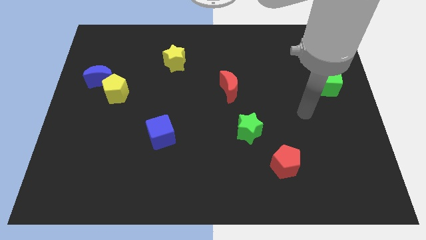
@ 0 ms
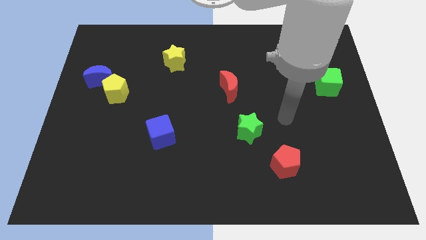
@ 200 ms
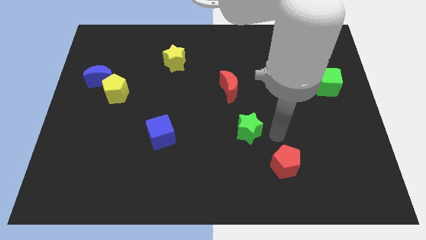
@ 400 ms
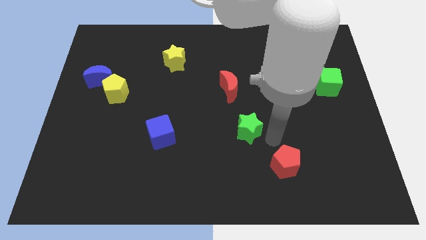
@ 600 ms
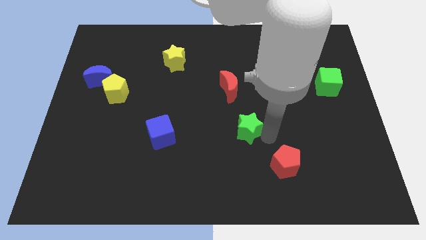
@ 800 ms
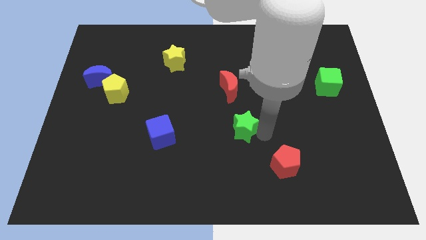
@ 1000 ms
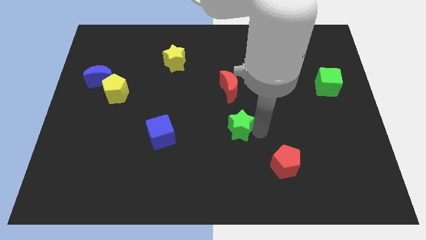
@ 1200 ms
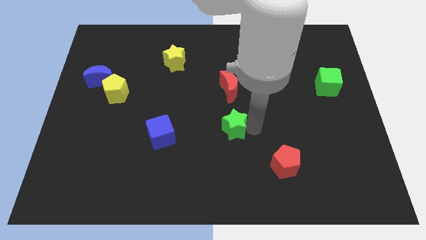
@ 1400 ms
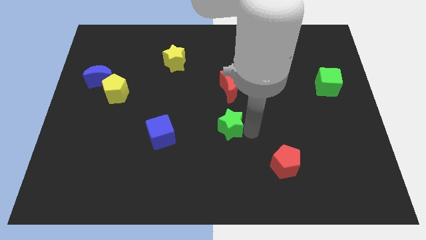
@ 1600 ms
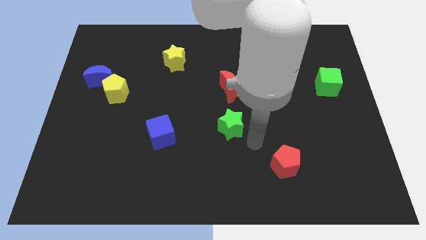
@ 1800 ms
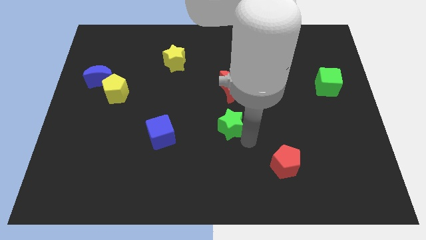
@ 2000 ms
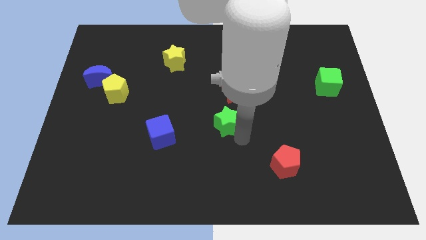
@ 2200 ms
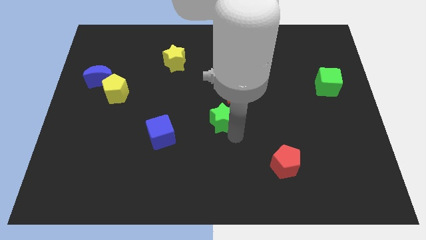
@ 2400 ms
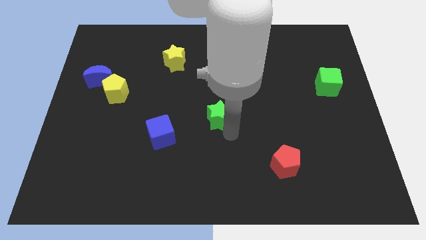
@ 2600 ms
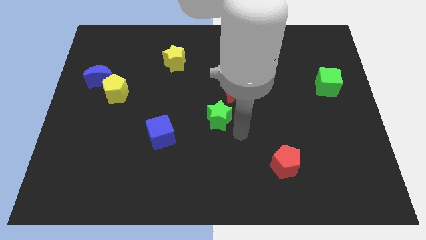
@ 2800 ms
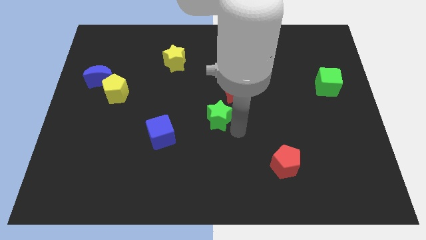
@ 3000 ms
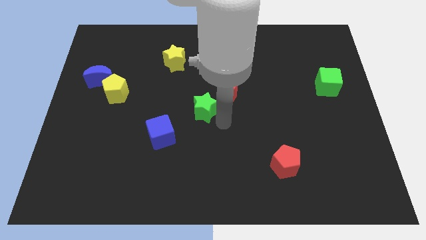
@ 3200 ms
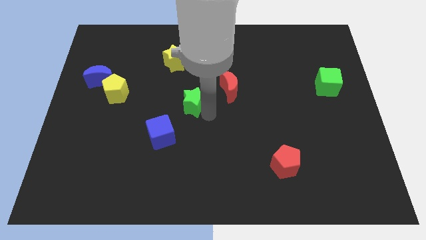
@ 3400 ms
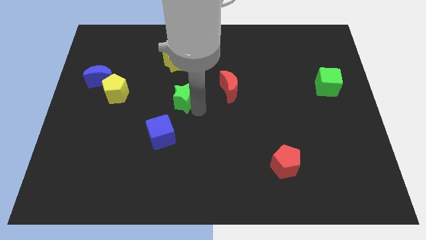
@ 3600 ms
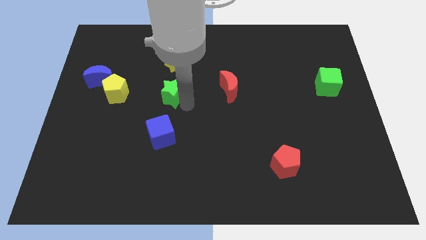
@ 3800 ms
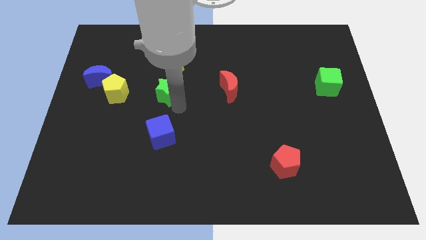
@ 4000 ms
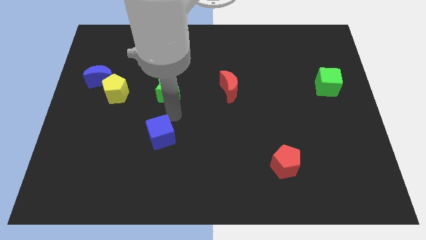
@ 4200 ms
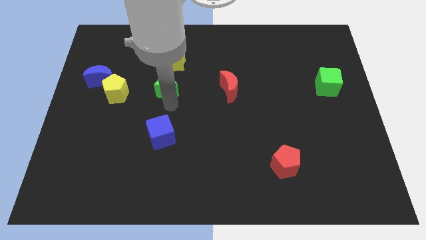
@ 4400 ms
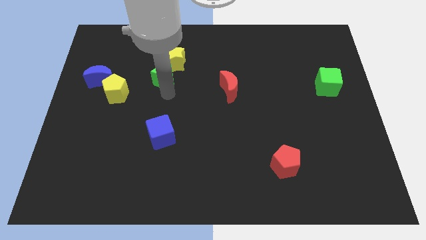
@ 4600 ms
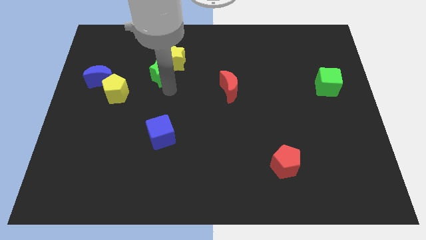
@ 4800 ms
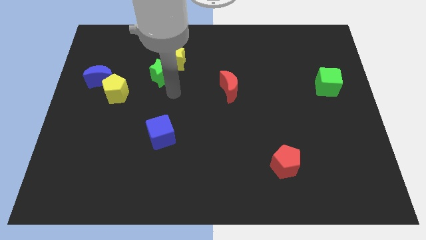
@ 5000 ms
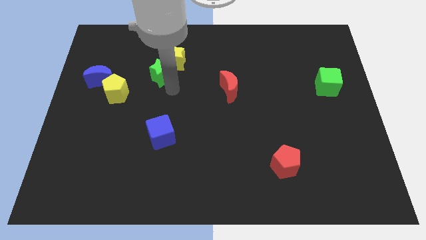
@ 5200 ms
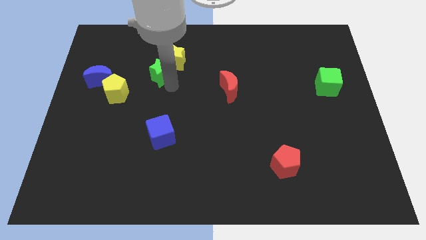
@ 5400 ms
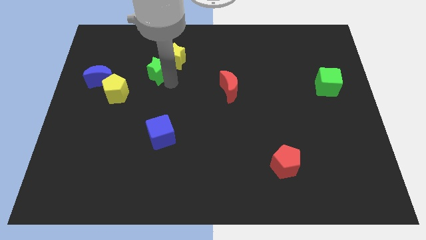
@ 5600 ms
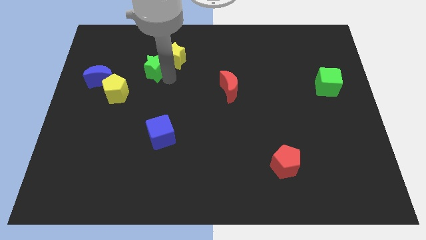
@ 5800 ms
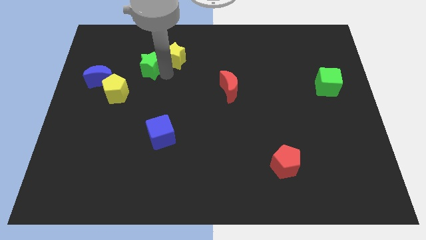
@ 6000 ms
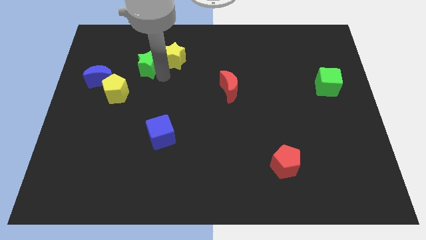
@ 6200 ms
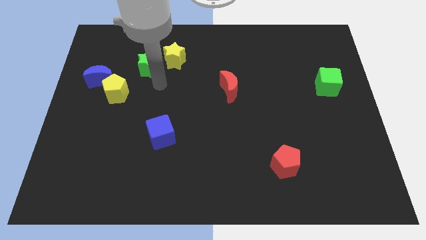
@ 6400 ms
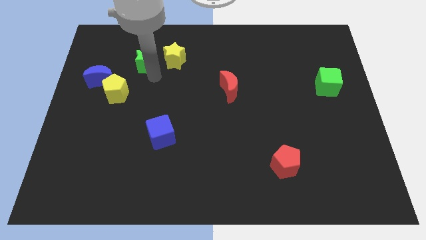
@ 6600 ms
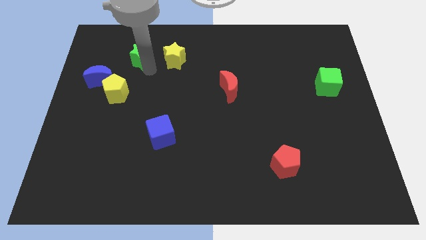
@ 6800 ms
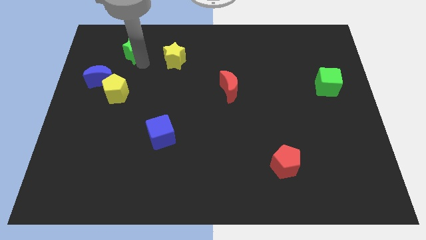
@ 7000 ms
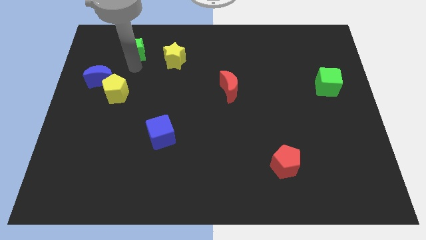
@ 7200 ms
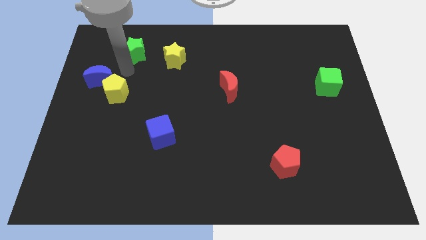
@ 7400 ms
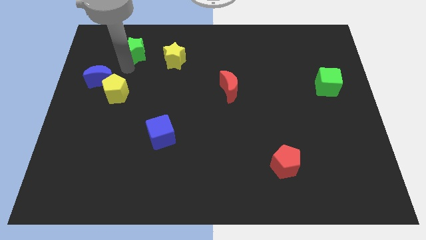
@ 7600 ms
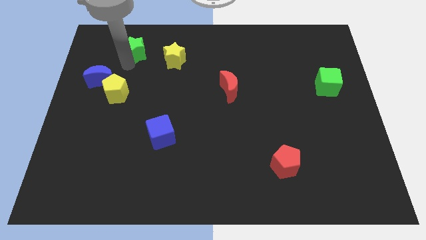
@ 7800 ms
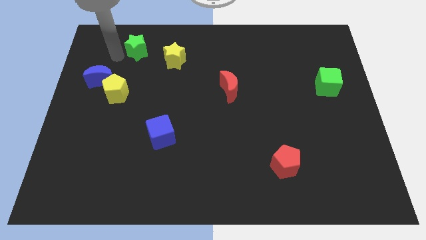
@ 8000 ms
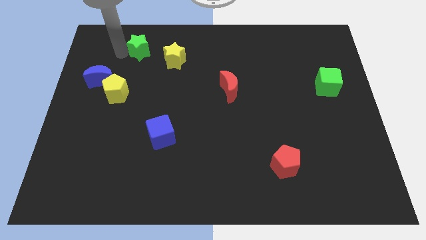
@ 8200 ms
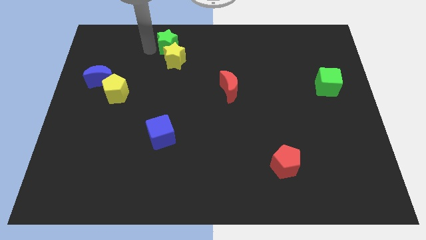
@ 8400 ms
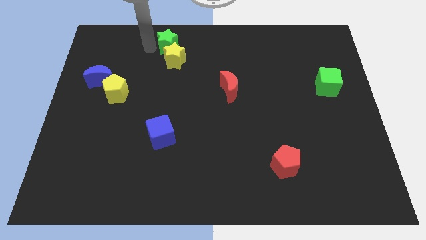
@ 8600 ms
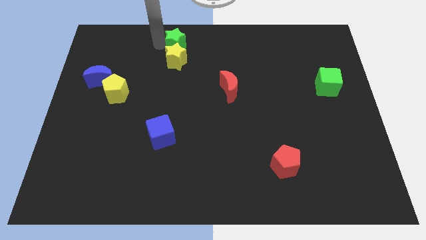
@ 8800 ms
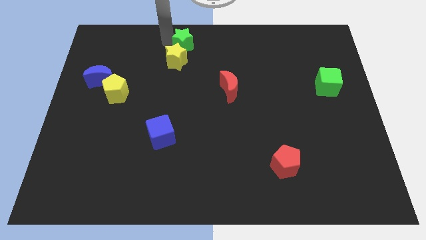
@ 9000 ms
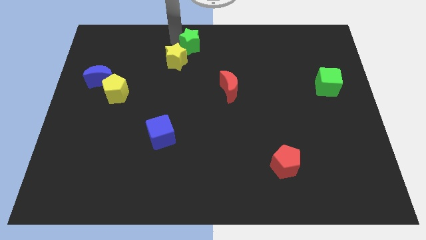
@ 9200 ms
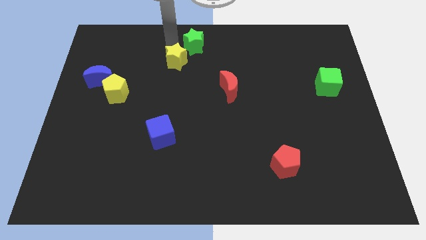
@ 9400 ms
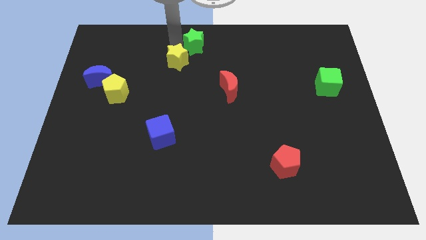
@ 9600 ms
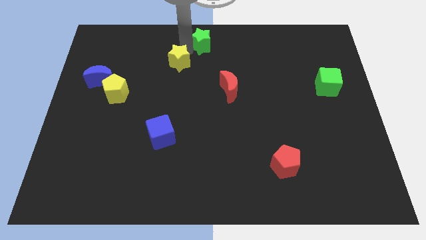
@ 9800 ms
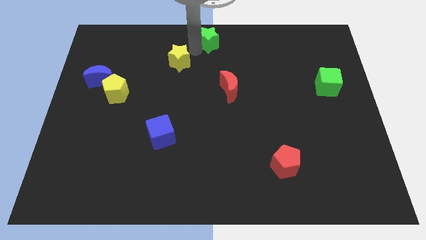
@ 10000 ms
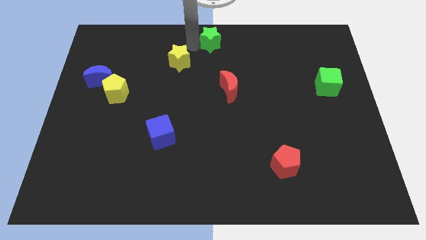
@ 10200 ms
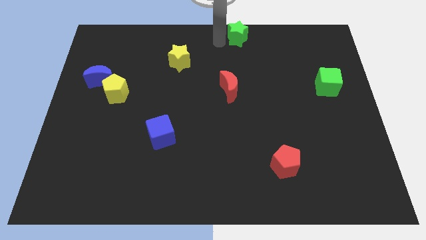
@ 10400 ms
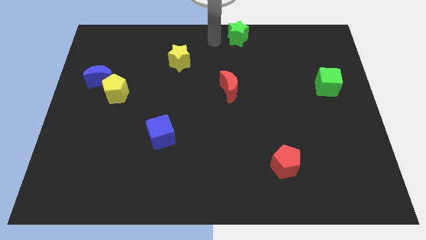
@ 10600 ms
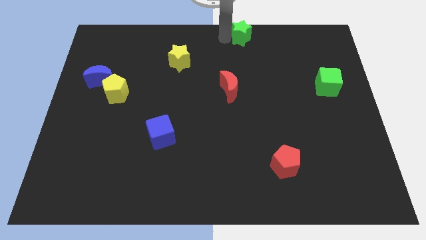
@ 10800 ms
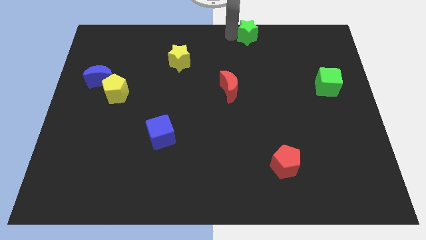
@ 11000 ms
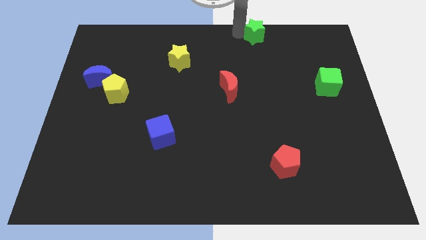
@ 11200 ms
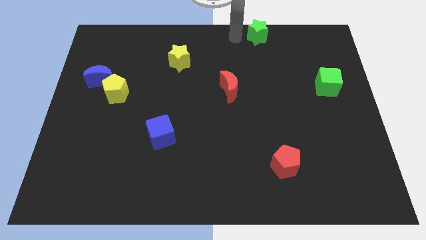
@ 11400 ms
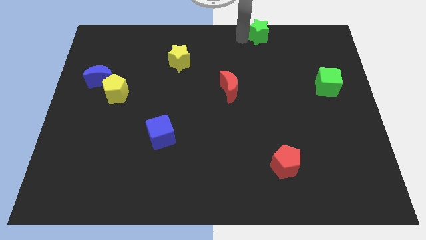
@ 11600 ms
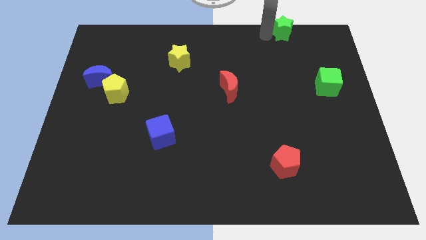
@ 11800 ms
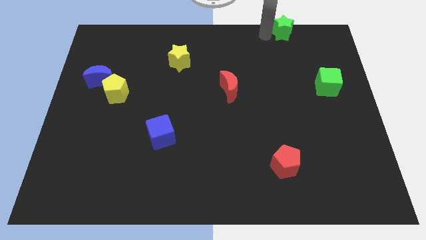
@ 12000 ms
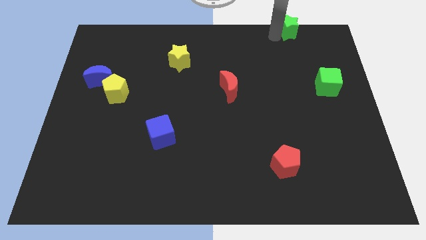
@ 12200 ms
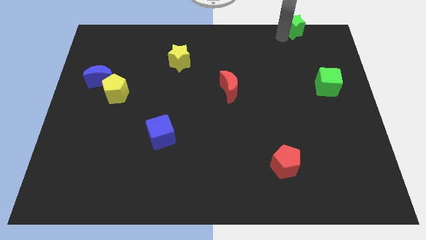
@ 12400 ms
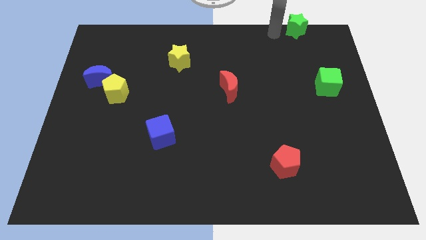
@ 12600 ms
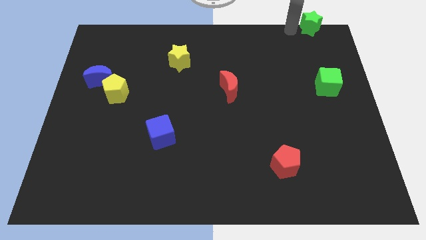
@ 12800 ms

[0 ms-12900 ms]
put the green star to the upper right corner
